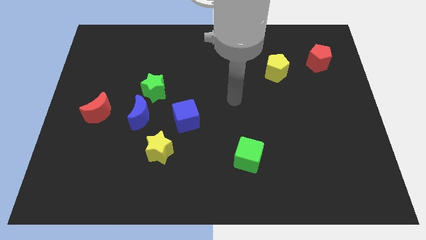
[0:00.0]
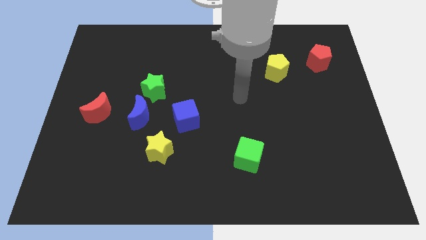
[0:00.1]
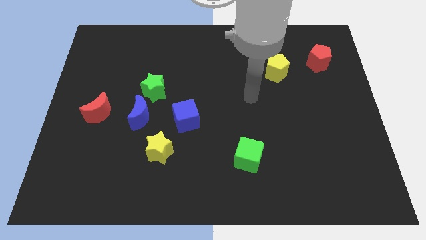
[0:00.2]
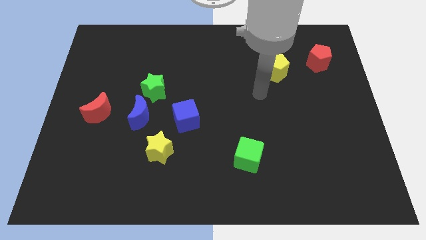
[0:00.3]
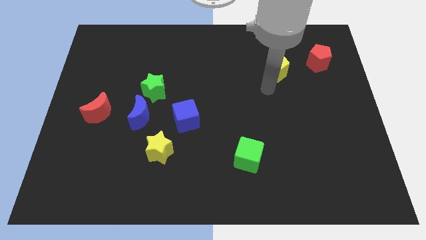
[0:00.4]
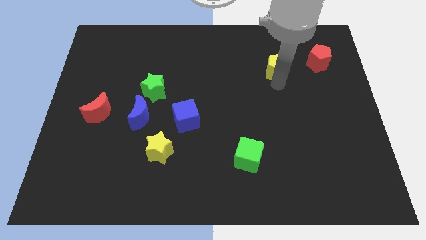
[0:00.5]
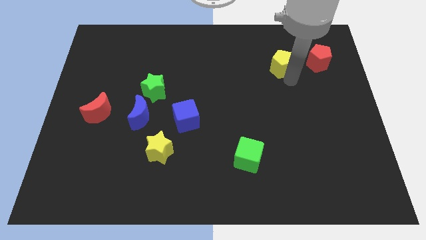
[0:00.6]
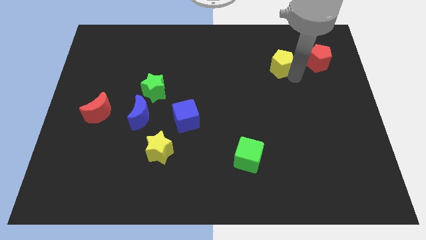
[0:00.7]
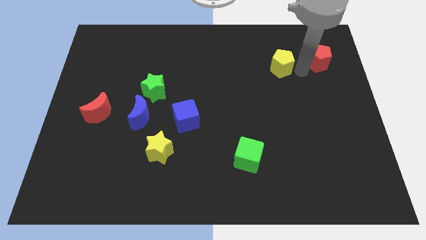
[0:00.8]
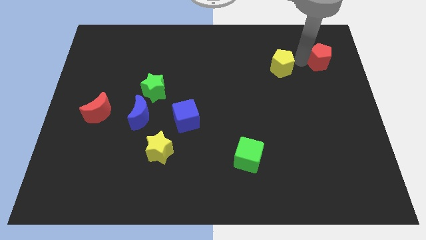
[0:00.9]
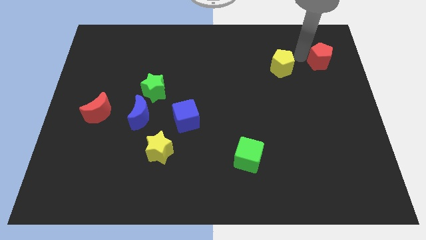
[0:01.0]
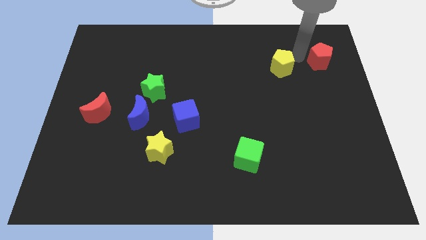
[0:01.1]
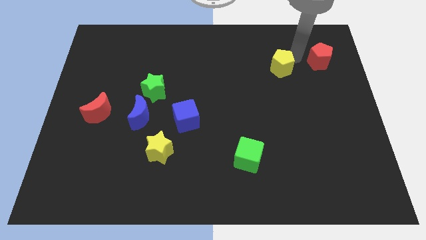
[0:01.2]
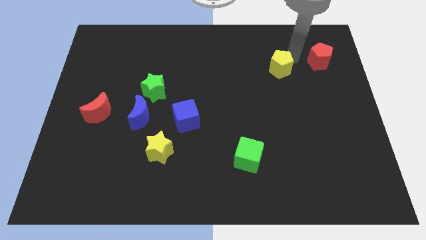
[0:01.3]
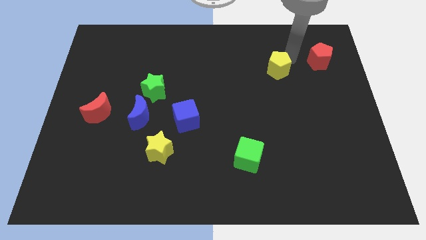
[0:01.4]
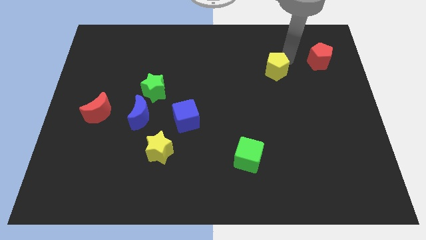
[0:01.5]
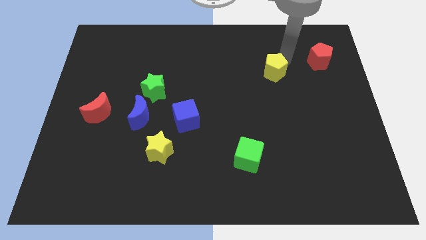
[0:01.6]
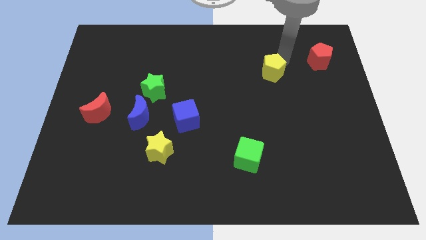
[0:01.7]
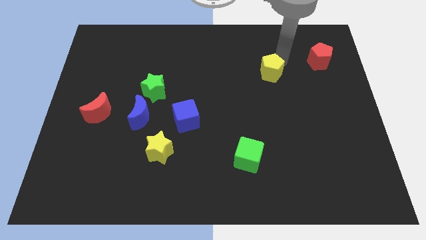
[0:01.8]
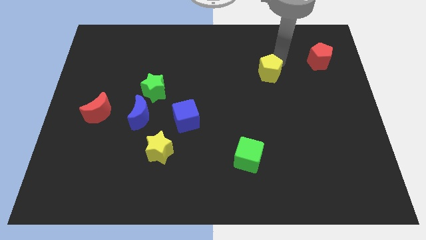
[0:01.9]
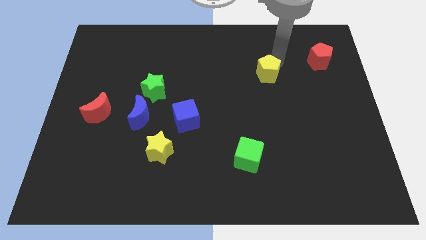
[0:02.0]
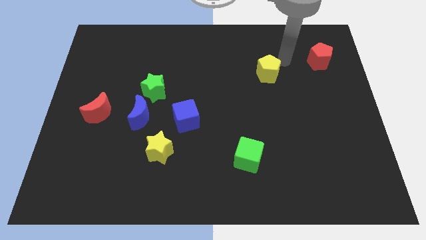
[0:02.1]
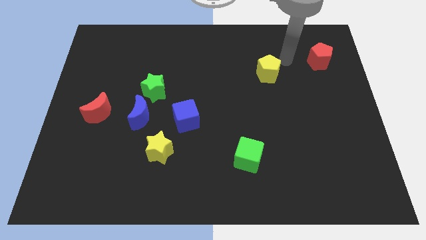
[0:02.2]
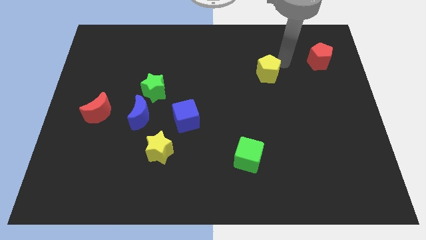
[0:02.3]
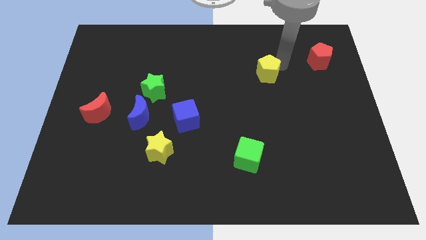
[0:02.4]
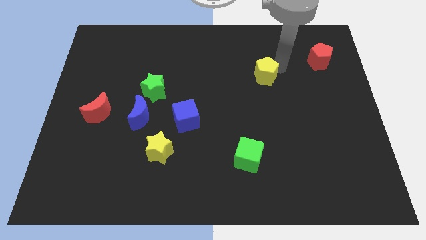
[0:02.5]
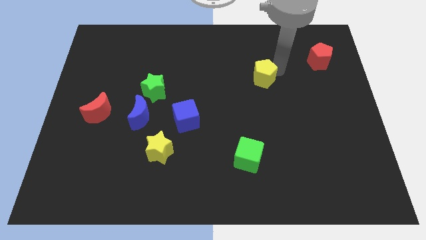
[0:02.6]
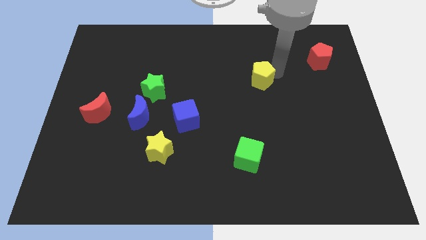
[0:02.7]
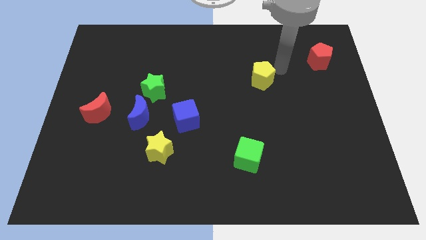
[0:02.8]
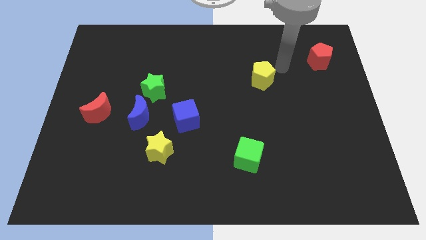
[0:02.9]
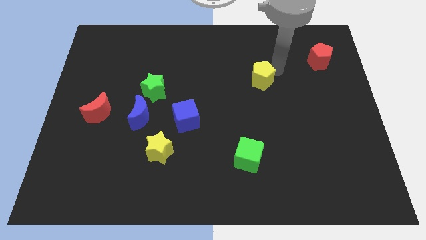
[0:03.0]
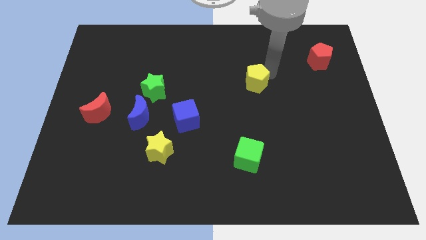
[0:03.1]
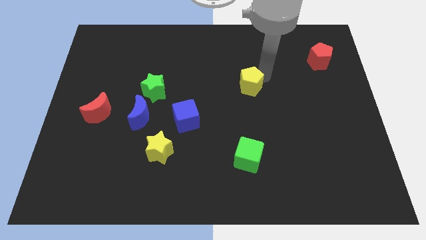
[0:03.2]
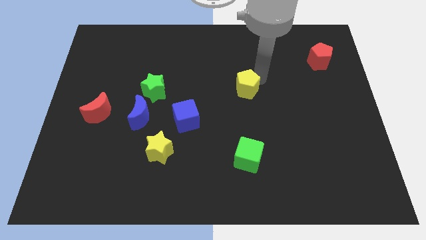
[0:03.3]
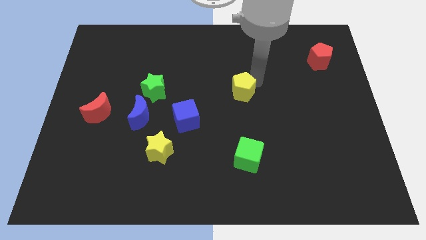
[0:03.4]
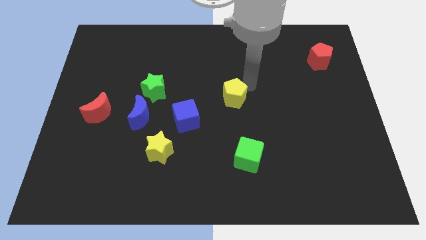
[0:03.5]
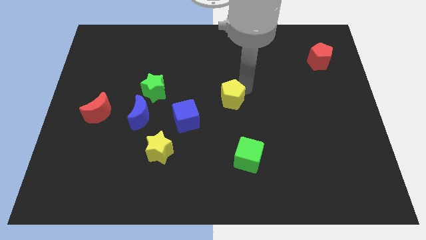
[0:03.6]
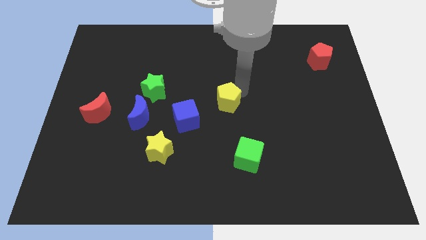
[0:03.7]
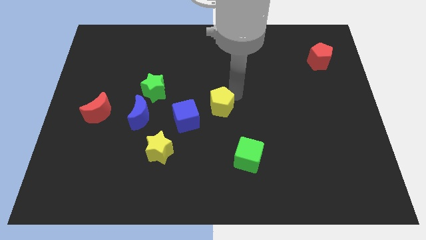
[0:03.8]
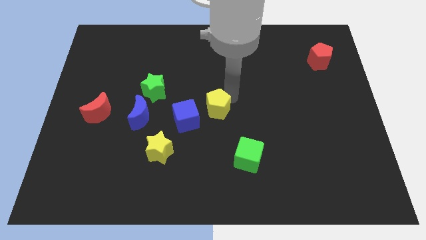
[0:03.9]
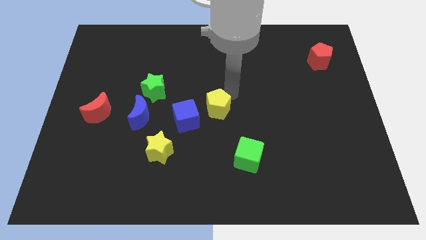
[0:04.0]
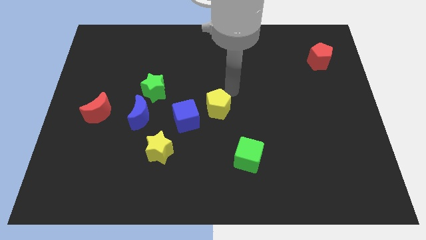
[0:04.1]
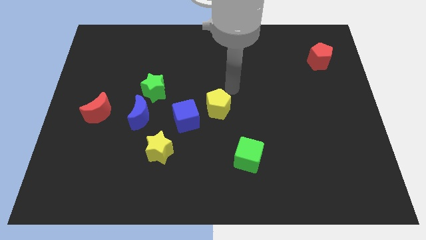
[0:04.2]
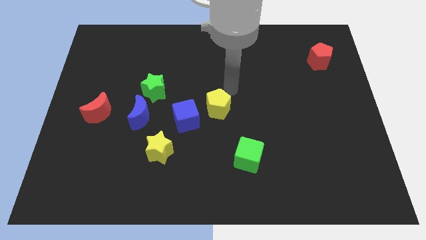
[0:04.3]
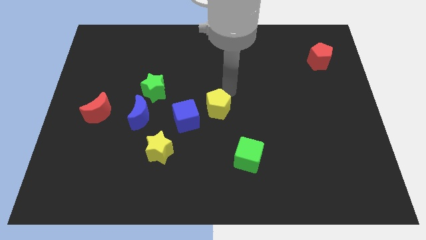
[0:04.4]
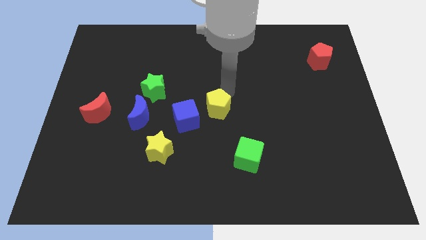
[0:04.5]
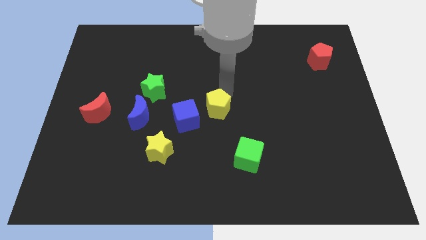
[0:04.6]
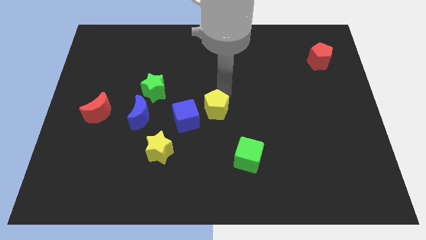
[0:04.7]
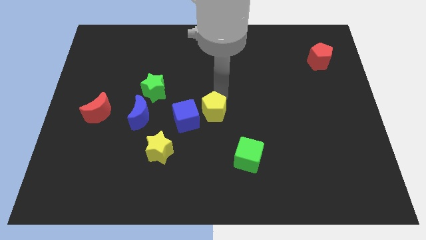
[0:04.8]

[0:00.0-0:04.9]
move the yellow pentagon downwards and to the left

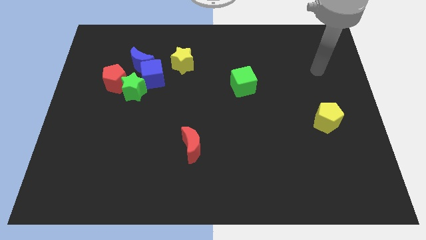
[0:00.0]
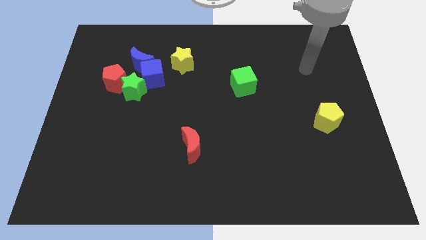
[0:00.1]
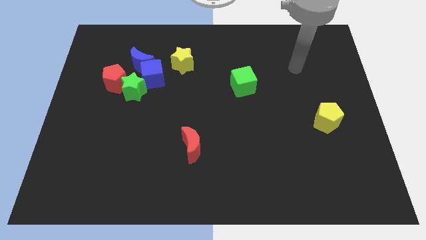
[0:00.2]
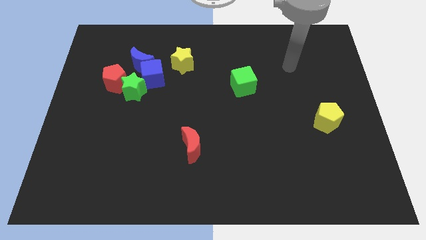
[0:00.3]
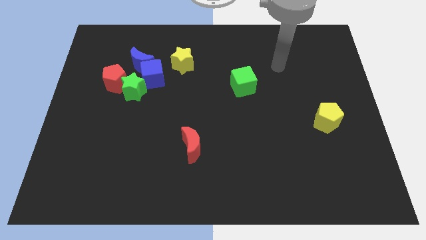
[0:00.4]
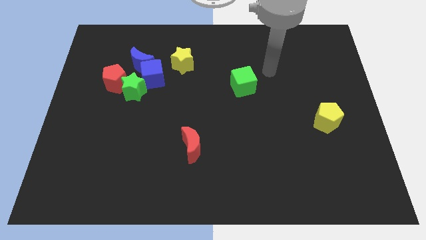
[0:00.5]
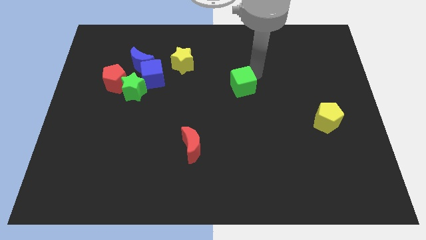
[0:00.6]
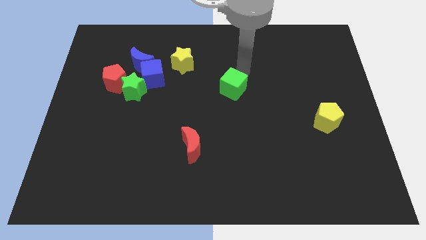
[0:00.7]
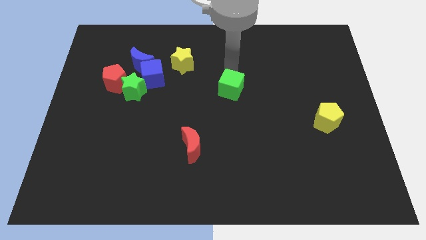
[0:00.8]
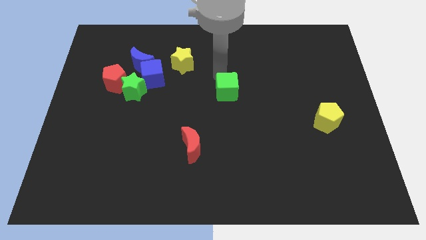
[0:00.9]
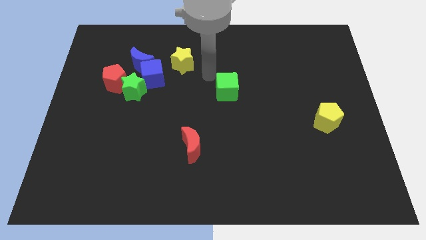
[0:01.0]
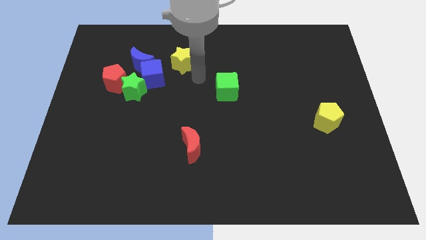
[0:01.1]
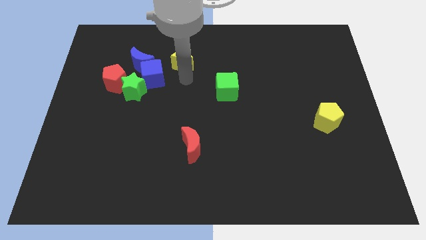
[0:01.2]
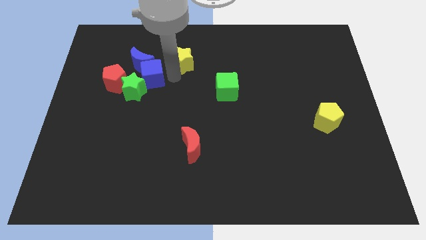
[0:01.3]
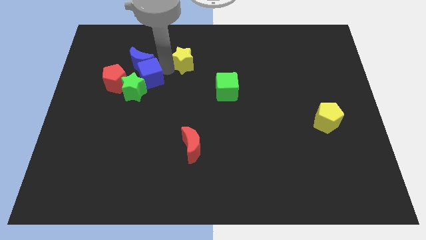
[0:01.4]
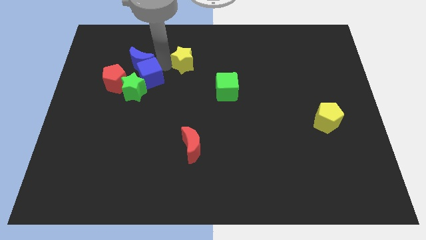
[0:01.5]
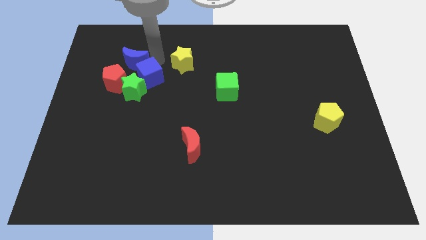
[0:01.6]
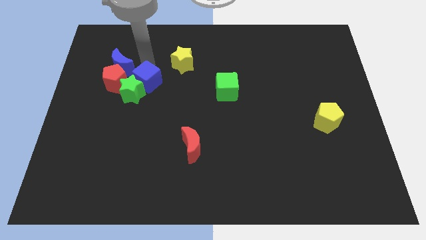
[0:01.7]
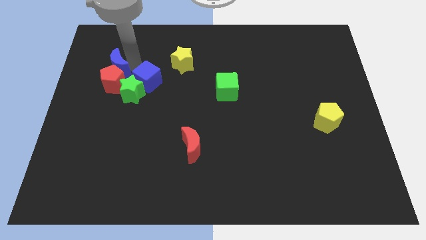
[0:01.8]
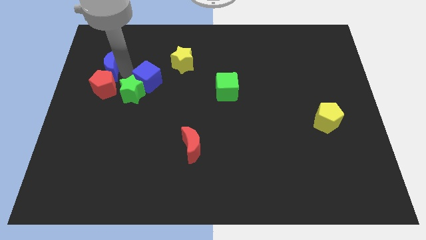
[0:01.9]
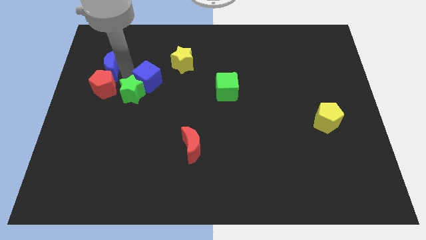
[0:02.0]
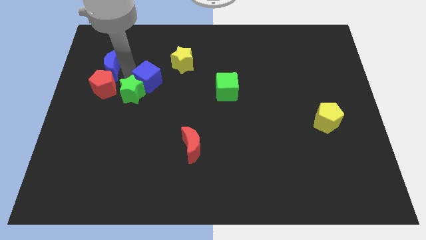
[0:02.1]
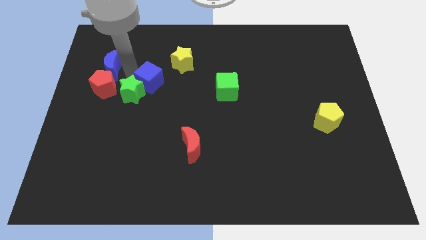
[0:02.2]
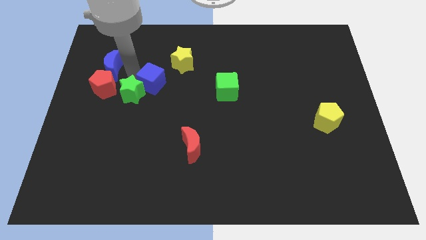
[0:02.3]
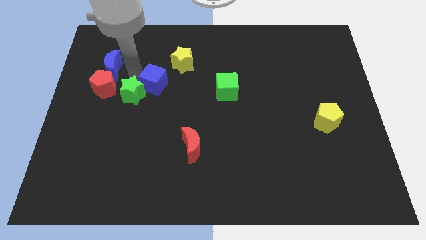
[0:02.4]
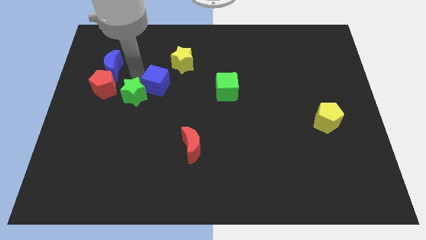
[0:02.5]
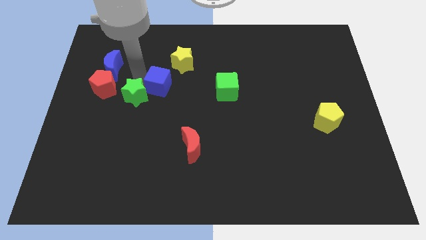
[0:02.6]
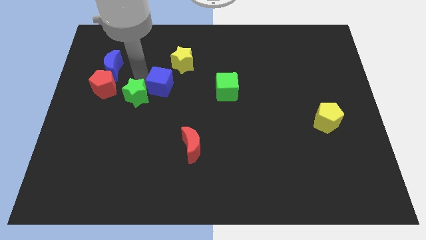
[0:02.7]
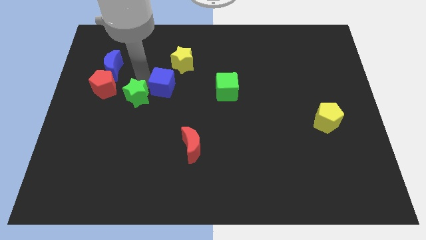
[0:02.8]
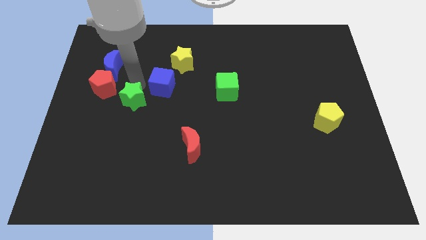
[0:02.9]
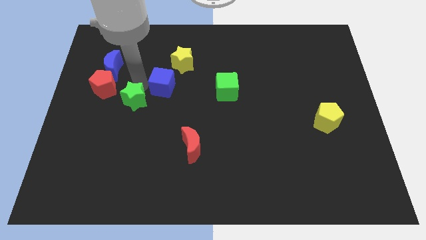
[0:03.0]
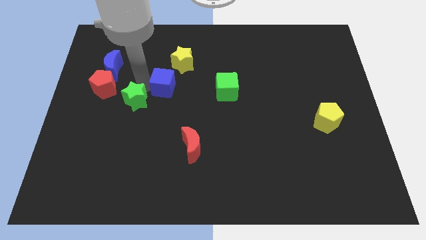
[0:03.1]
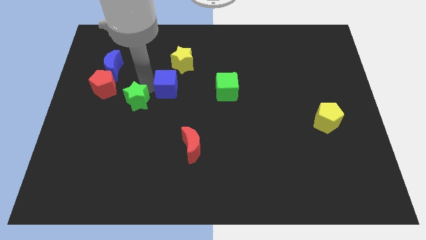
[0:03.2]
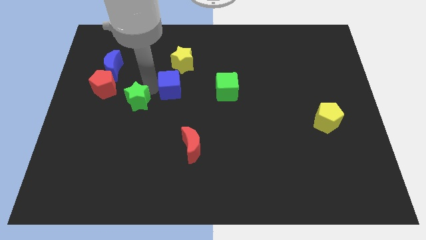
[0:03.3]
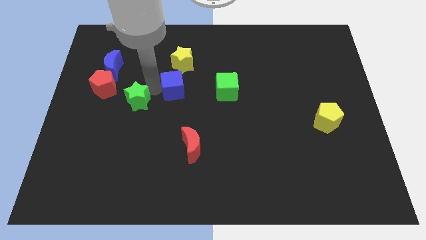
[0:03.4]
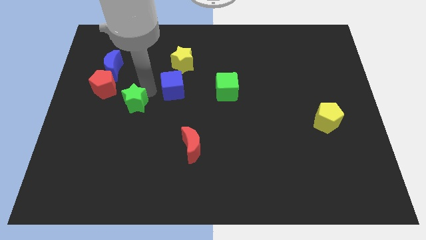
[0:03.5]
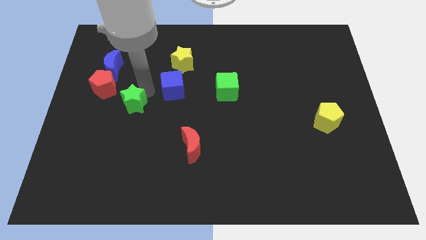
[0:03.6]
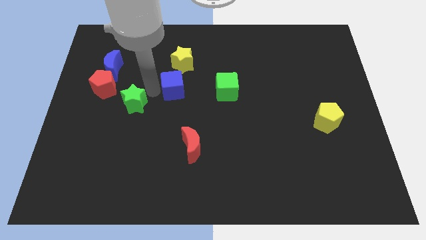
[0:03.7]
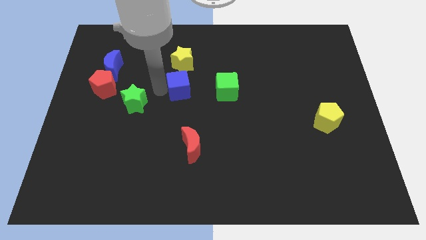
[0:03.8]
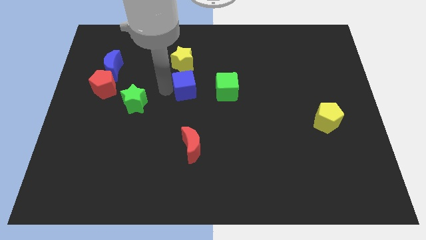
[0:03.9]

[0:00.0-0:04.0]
slightly slide the blue cube to the right
